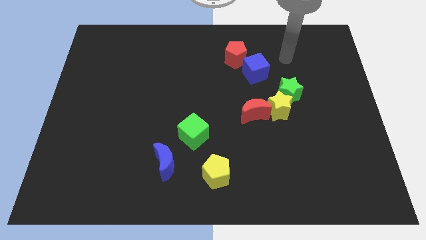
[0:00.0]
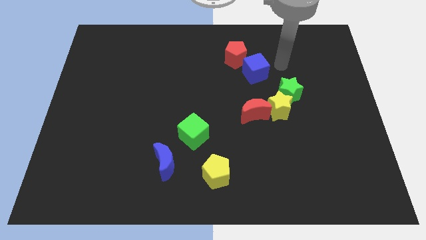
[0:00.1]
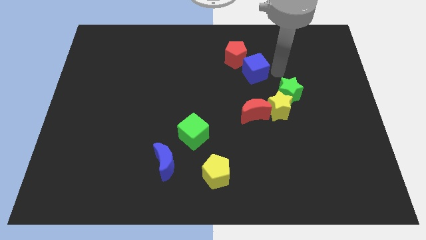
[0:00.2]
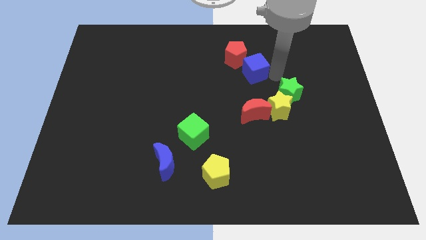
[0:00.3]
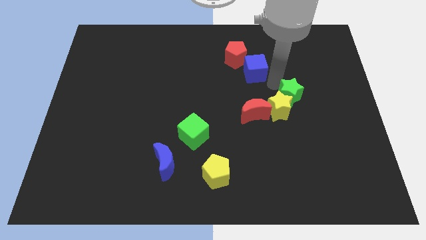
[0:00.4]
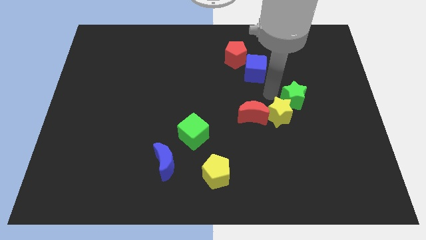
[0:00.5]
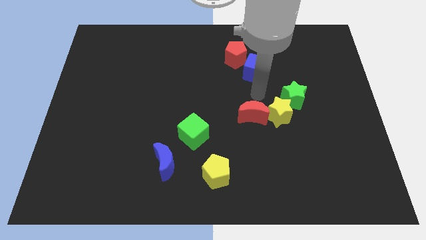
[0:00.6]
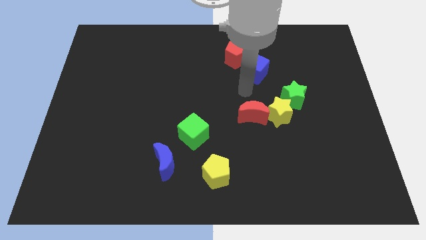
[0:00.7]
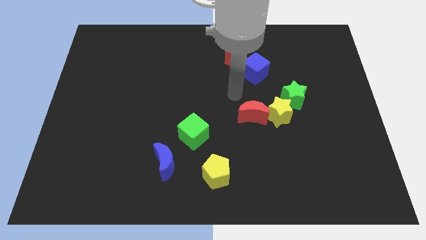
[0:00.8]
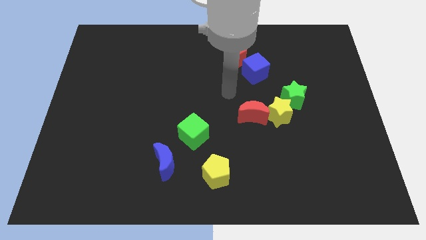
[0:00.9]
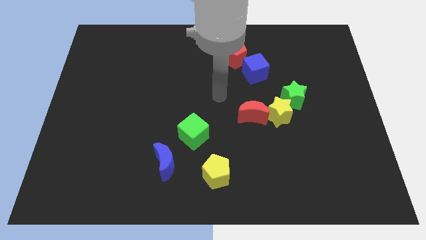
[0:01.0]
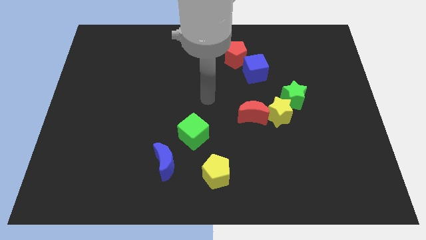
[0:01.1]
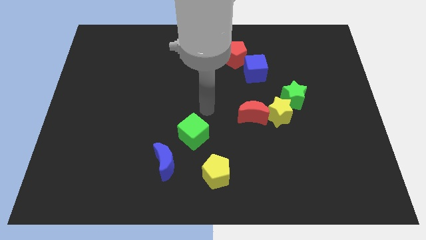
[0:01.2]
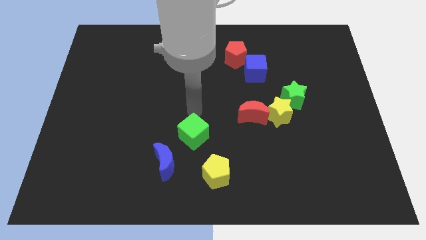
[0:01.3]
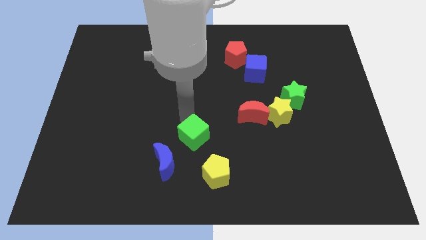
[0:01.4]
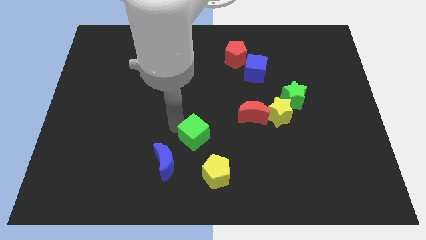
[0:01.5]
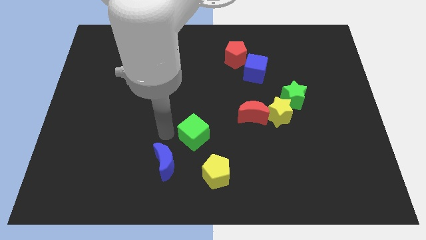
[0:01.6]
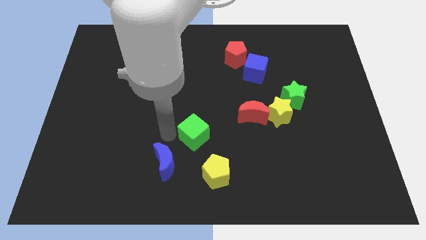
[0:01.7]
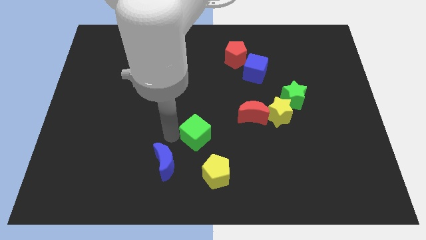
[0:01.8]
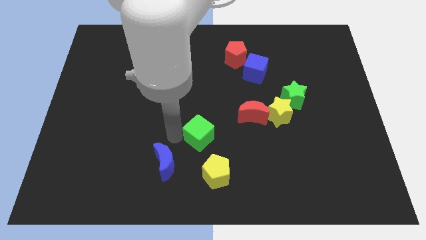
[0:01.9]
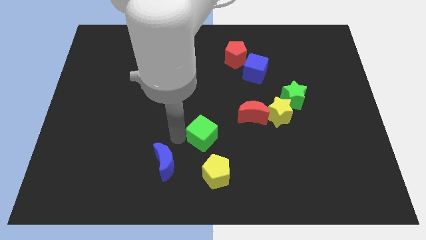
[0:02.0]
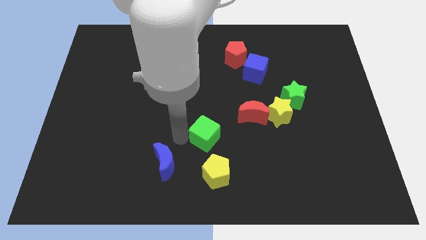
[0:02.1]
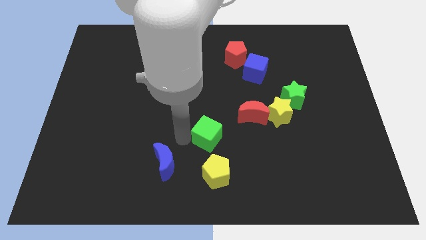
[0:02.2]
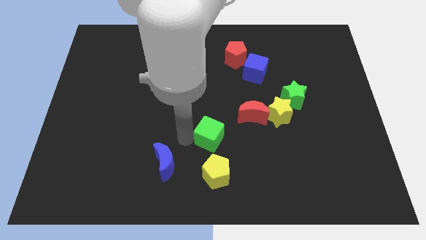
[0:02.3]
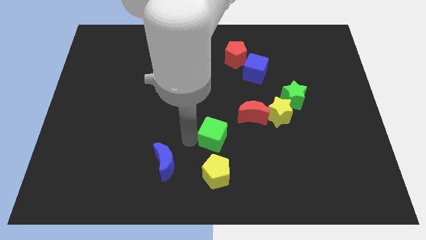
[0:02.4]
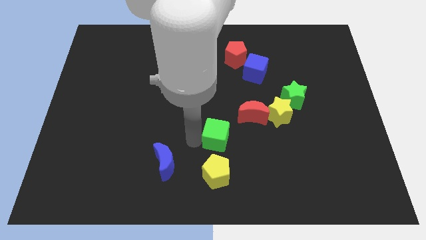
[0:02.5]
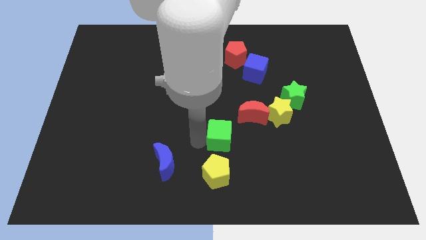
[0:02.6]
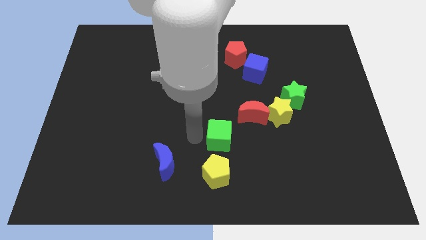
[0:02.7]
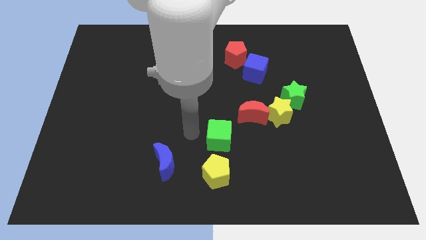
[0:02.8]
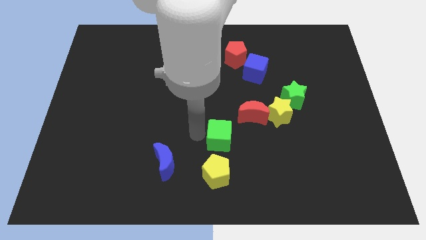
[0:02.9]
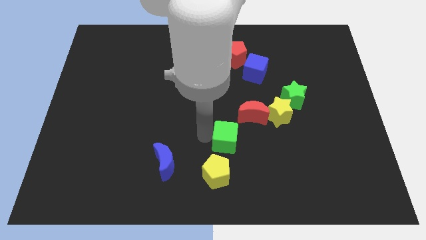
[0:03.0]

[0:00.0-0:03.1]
slide the green cube right a little

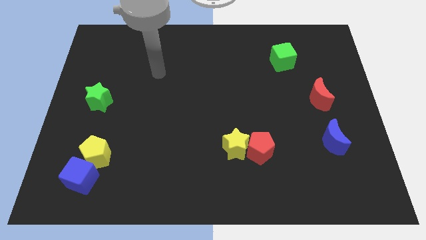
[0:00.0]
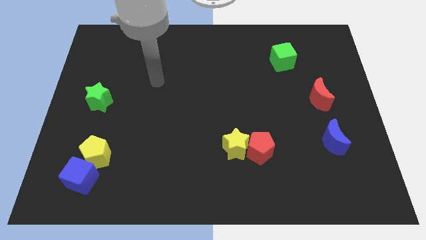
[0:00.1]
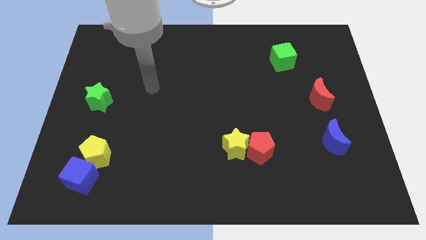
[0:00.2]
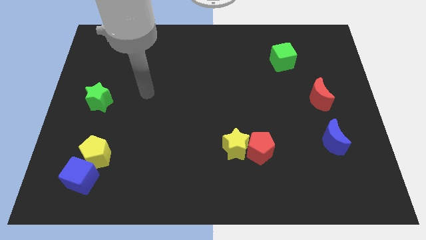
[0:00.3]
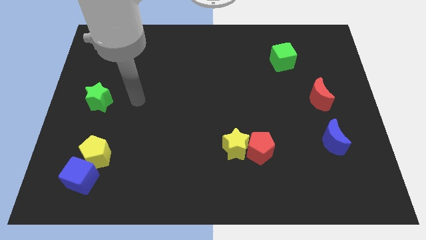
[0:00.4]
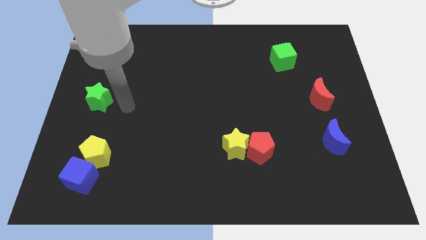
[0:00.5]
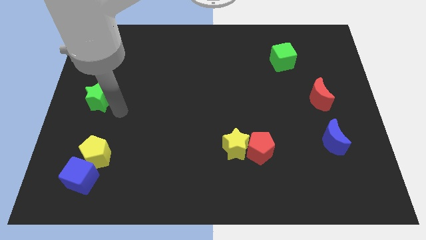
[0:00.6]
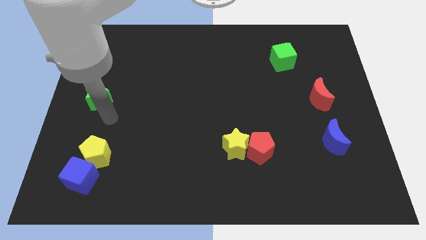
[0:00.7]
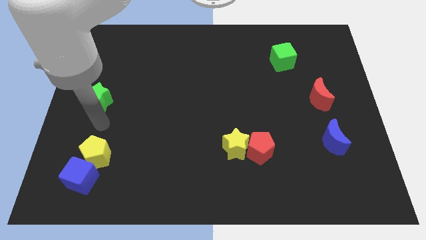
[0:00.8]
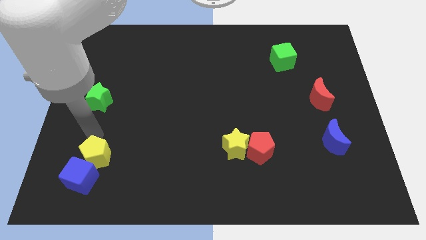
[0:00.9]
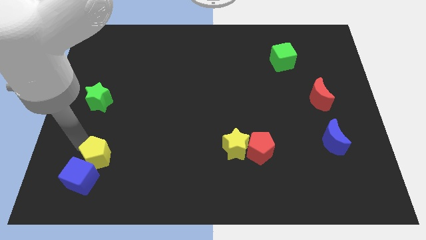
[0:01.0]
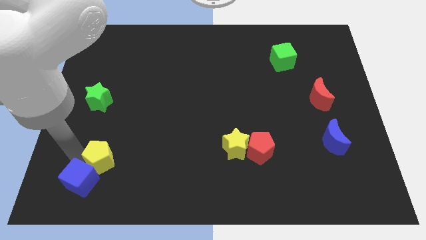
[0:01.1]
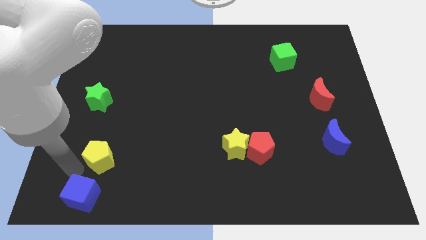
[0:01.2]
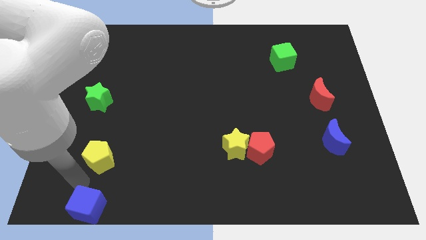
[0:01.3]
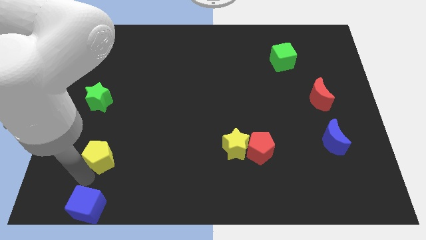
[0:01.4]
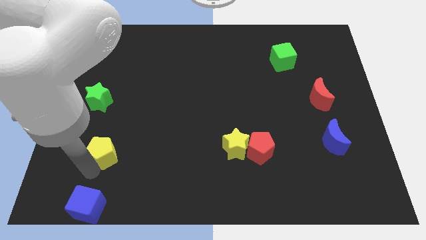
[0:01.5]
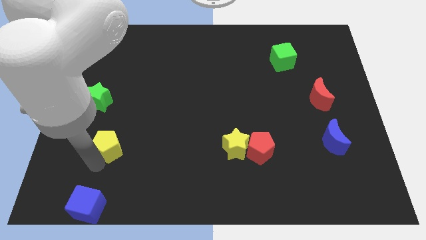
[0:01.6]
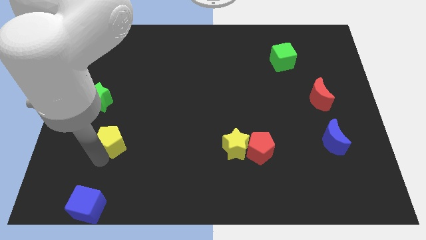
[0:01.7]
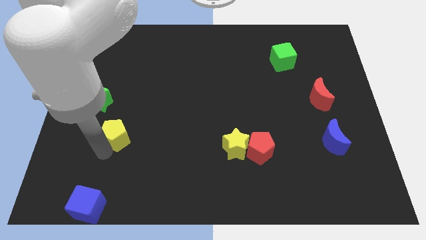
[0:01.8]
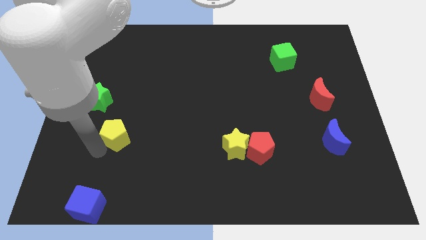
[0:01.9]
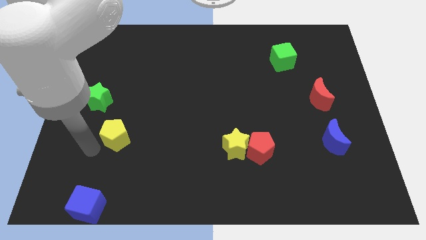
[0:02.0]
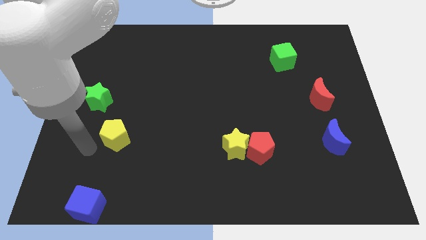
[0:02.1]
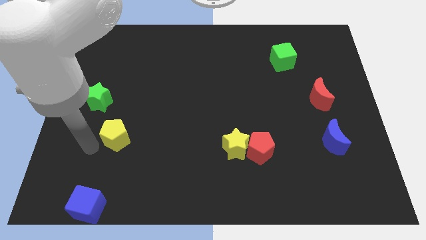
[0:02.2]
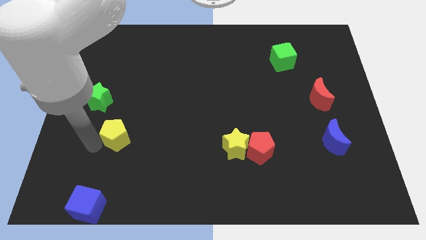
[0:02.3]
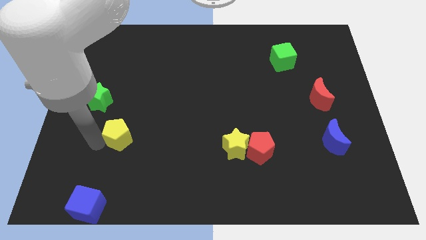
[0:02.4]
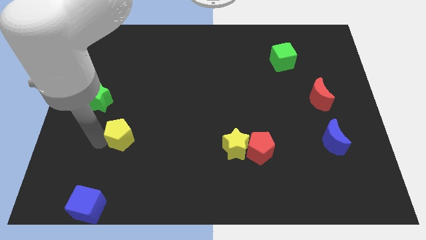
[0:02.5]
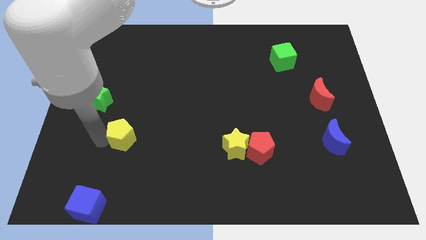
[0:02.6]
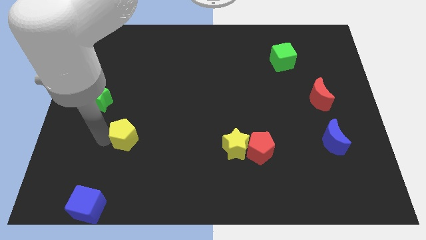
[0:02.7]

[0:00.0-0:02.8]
move the yellow pentagon a bit diagonally up and right

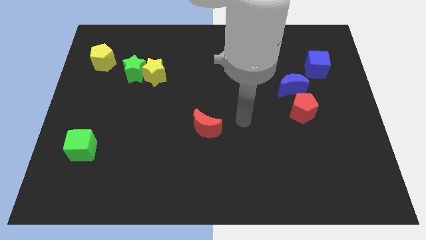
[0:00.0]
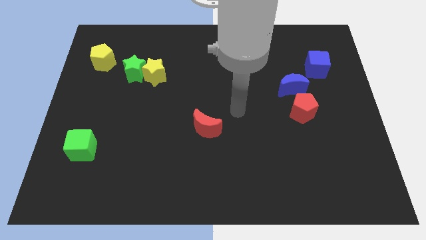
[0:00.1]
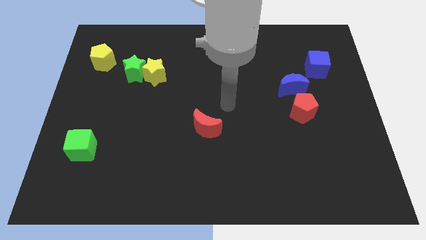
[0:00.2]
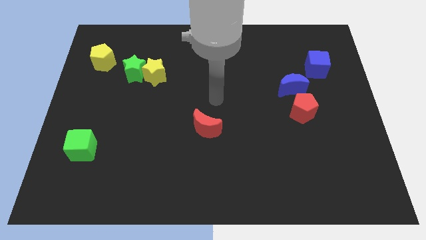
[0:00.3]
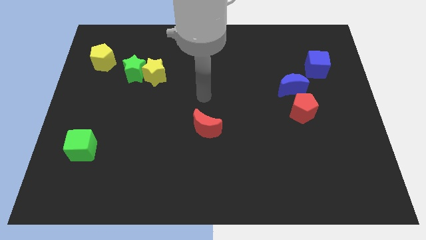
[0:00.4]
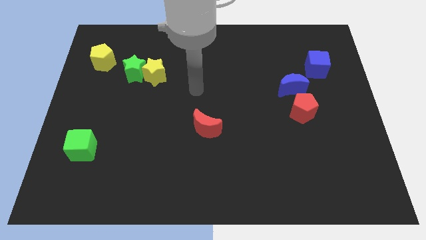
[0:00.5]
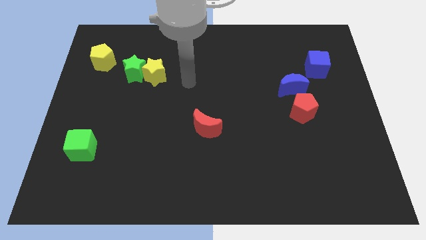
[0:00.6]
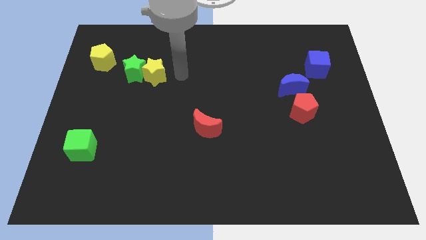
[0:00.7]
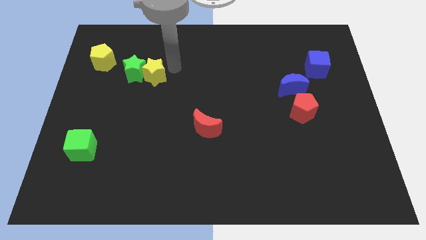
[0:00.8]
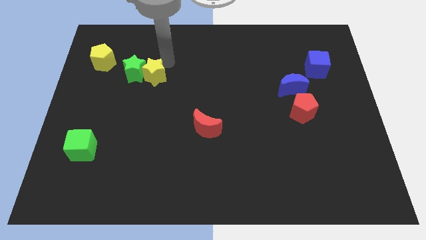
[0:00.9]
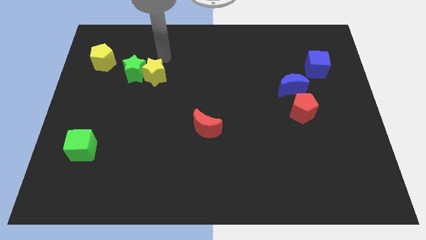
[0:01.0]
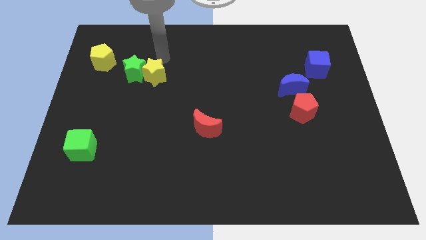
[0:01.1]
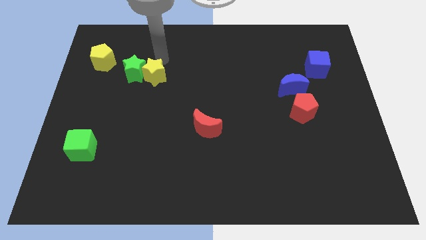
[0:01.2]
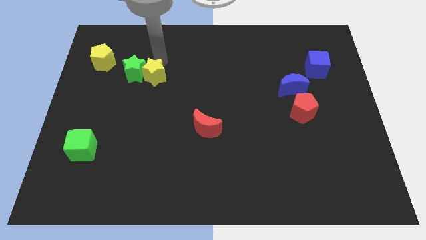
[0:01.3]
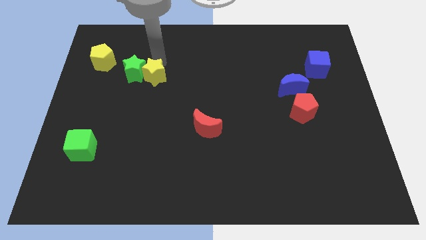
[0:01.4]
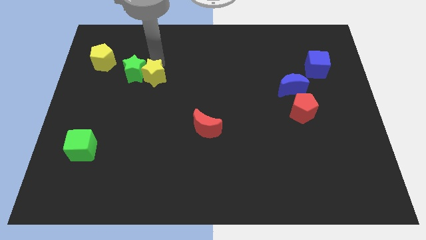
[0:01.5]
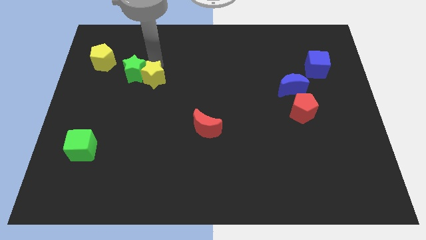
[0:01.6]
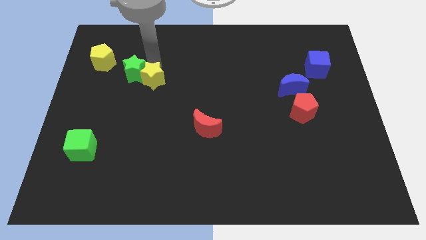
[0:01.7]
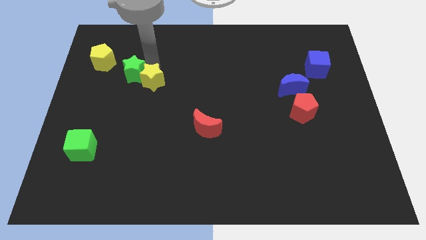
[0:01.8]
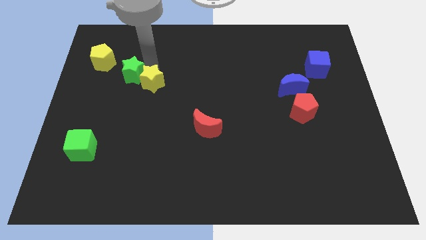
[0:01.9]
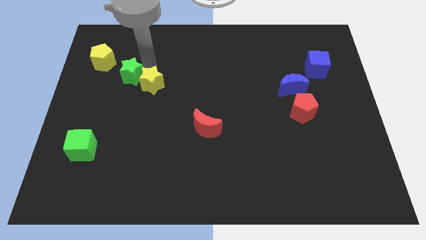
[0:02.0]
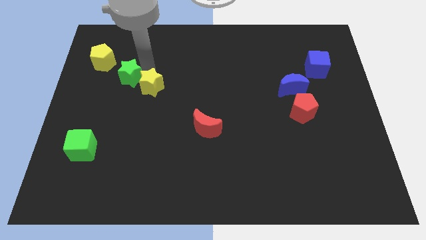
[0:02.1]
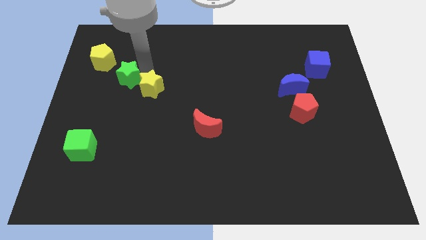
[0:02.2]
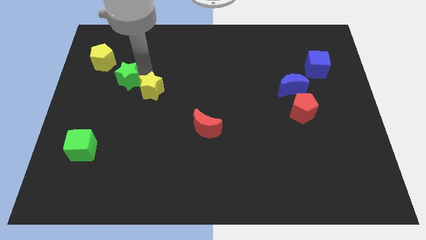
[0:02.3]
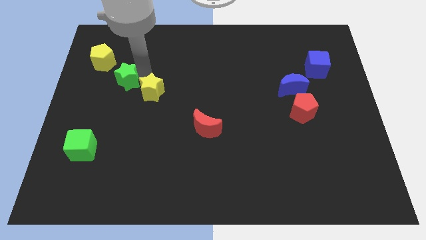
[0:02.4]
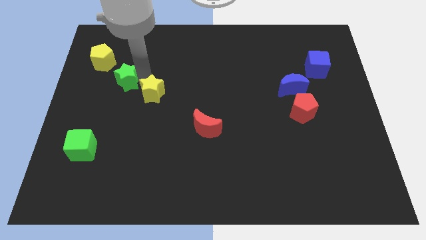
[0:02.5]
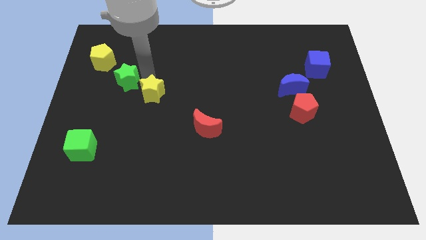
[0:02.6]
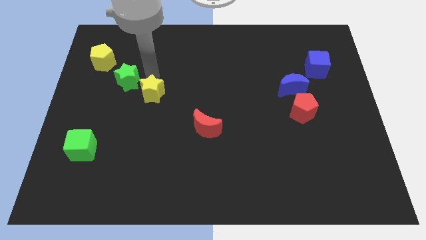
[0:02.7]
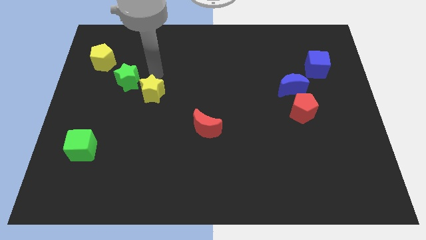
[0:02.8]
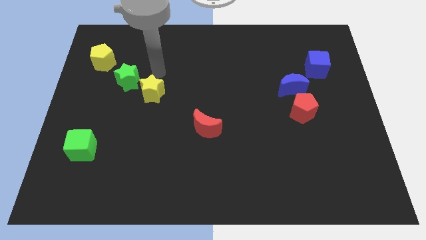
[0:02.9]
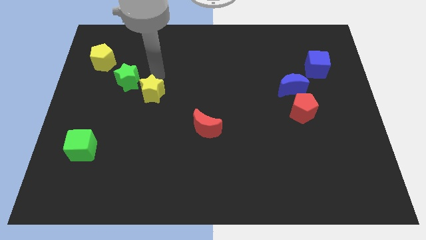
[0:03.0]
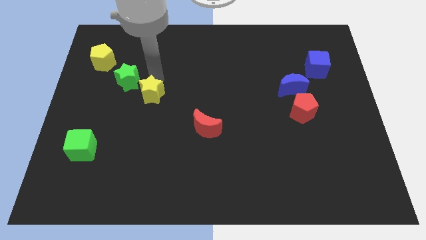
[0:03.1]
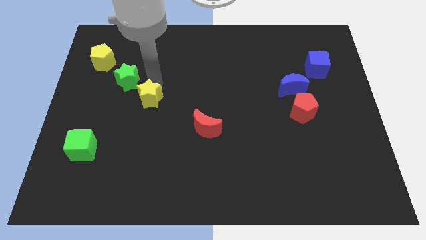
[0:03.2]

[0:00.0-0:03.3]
slide the yellow star down slightly
